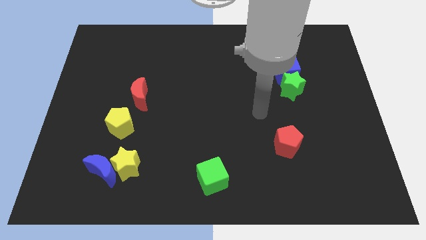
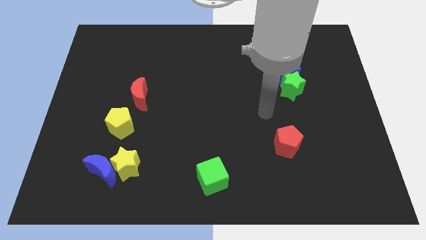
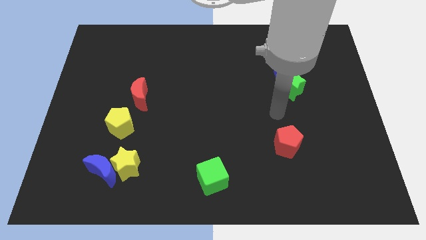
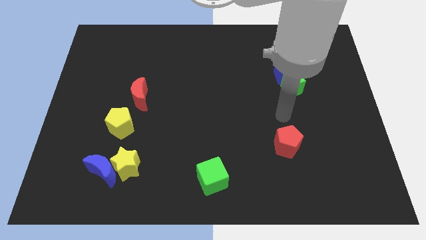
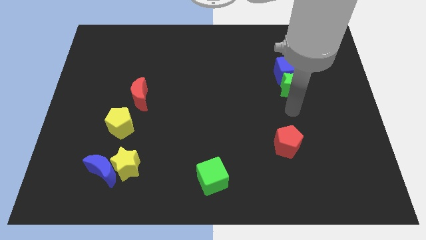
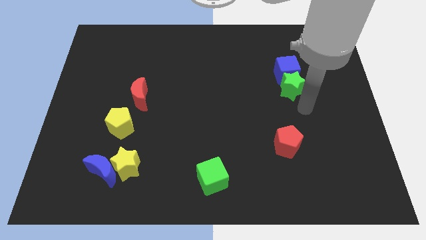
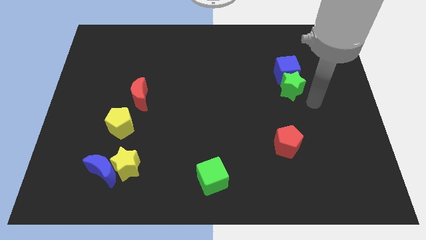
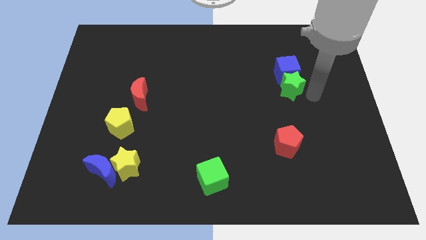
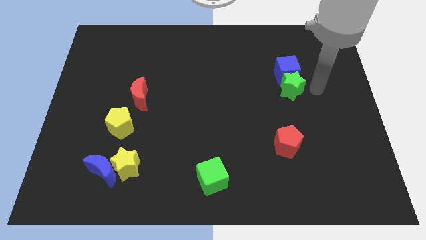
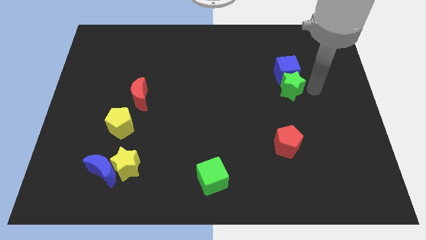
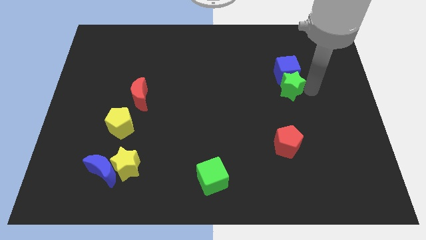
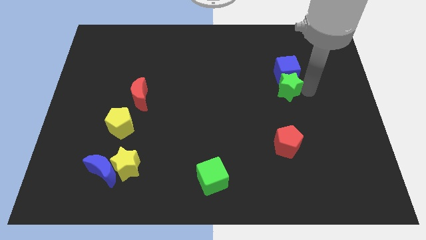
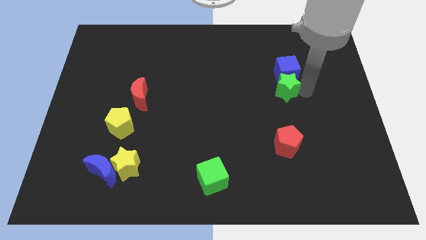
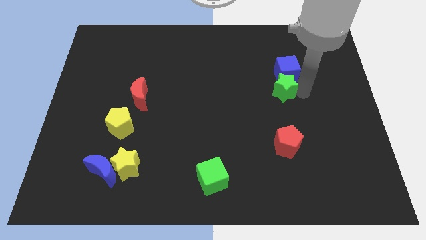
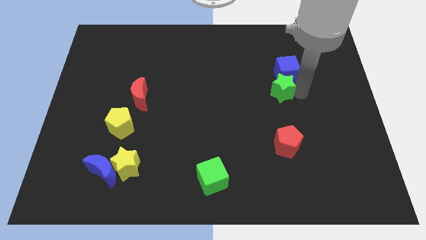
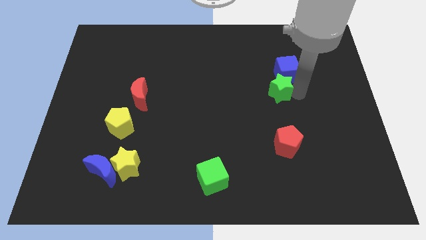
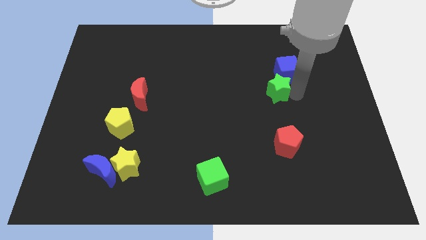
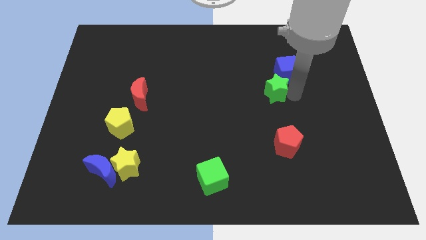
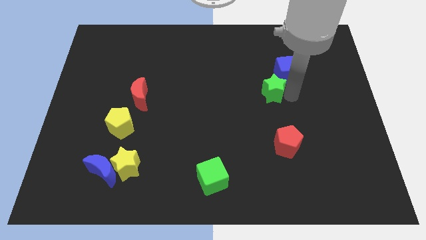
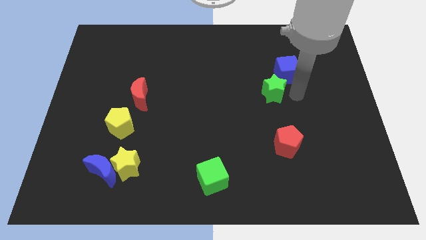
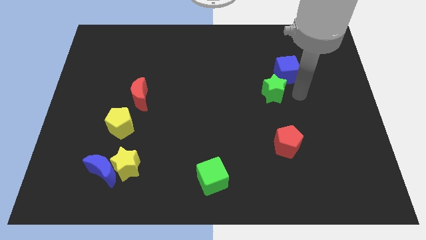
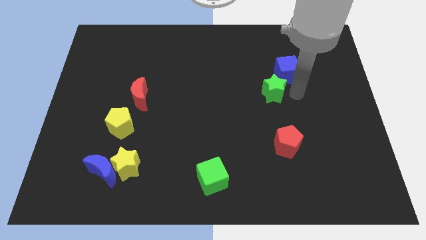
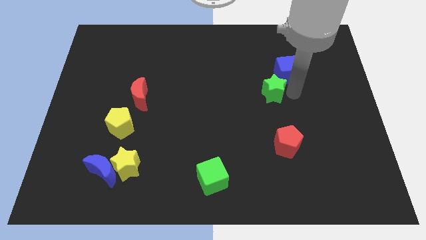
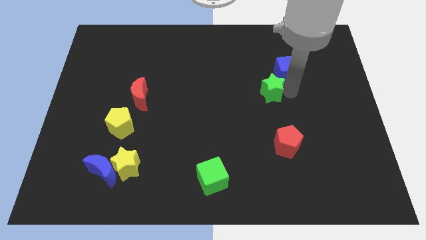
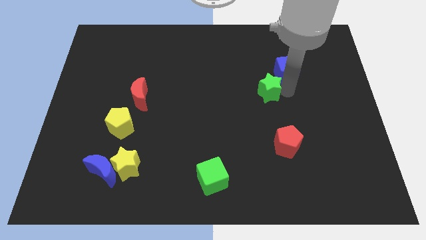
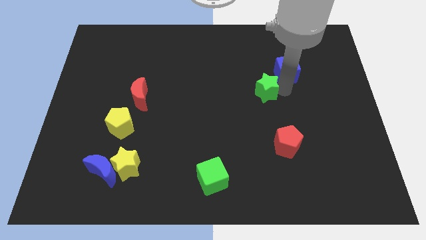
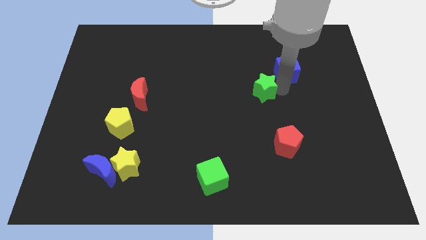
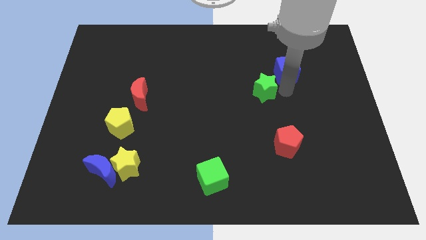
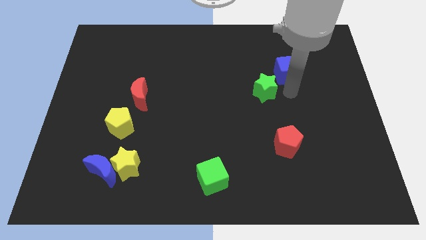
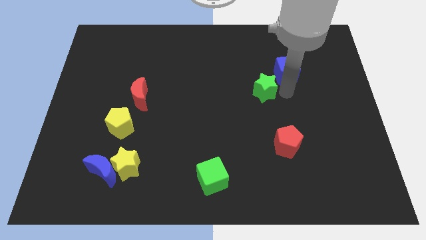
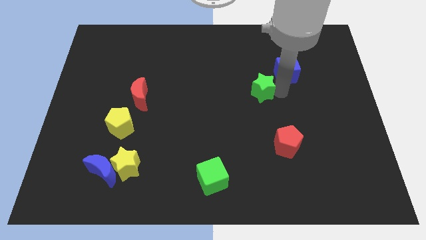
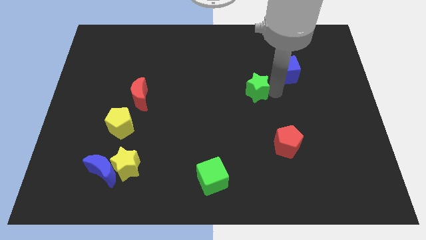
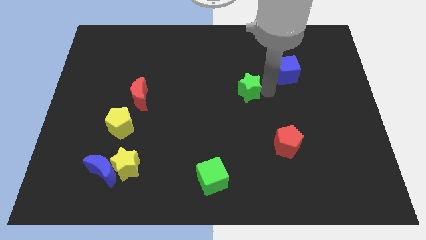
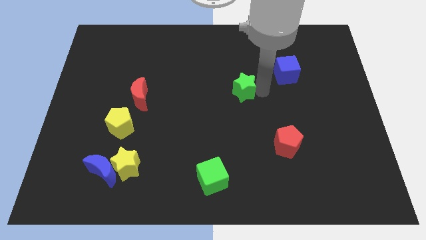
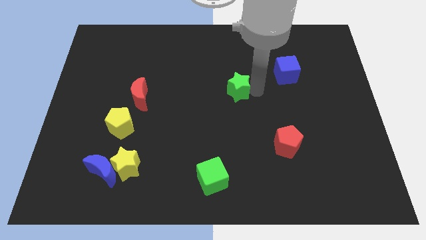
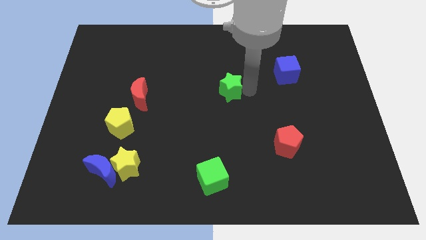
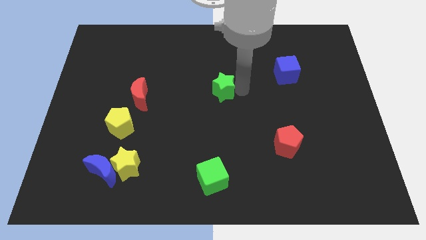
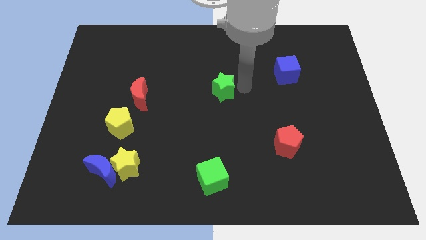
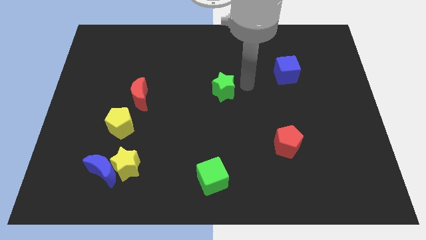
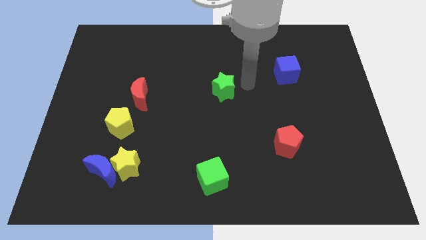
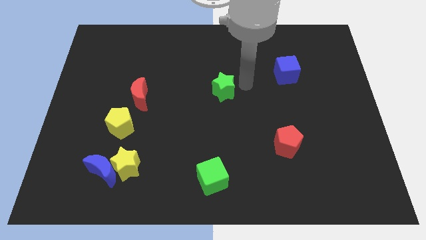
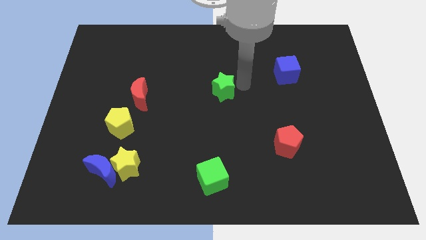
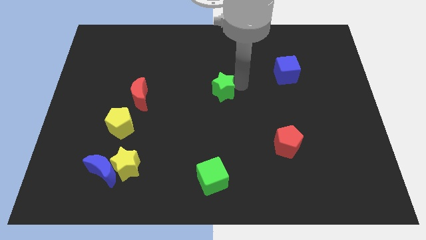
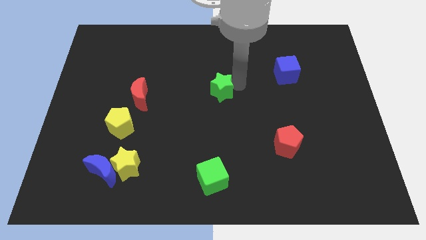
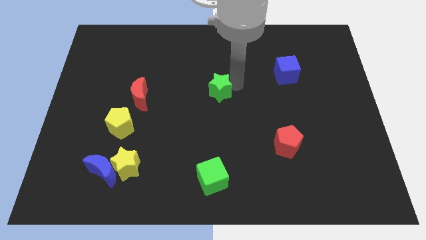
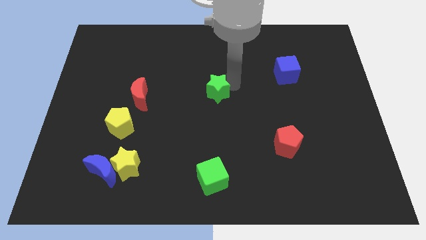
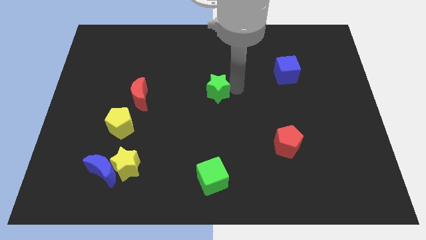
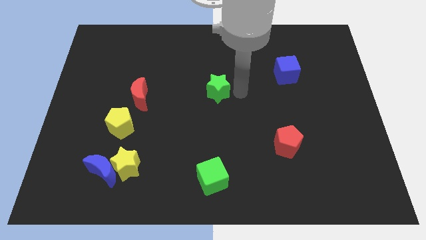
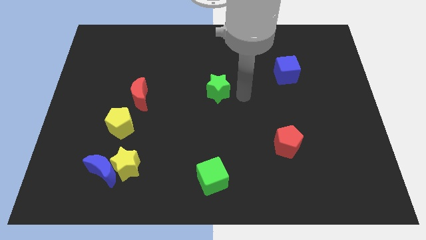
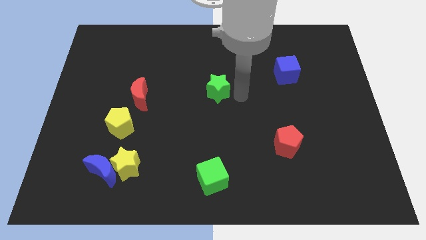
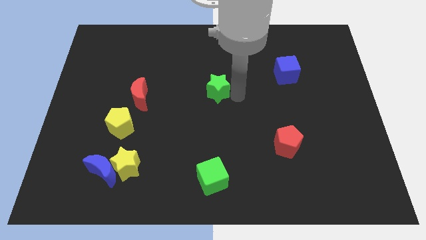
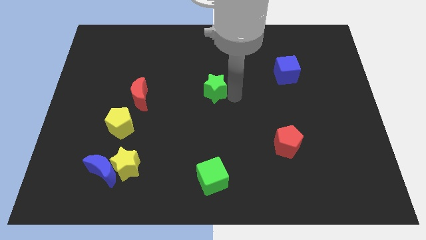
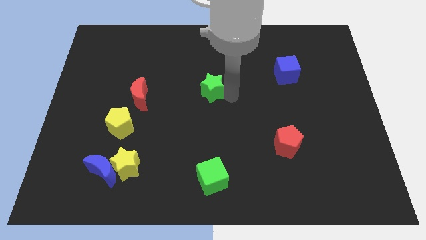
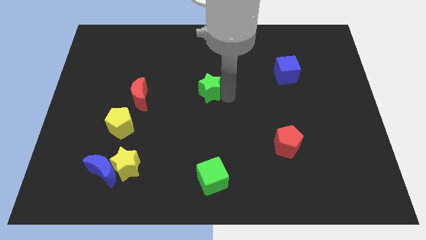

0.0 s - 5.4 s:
push the green star to the left

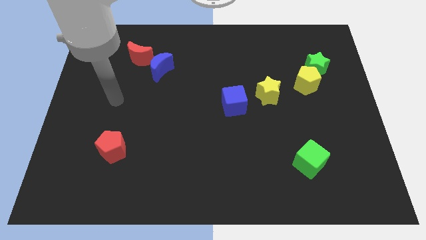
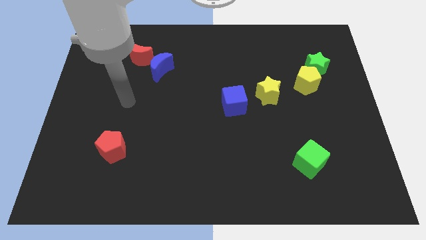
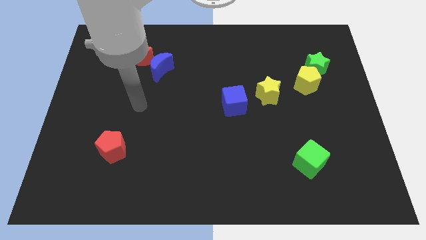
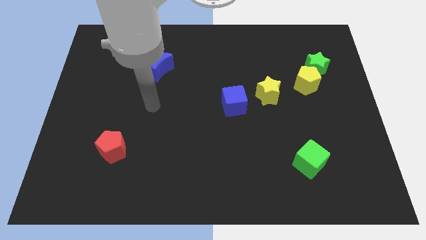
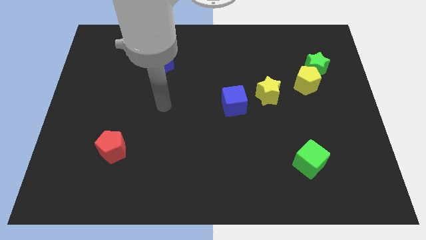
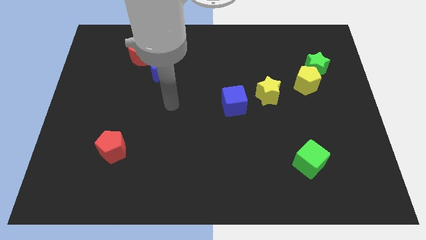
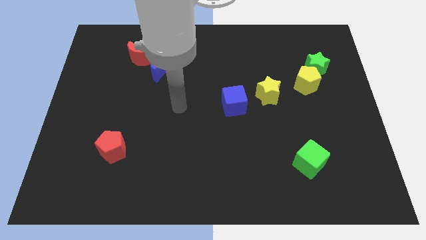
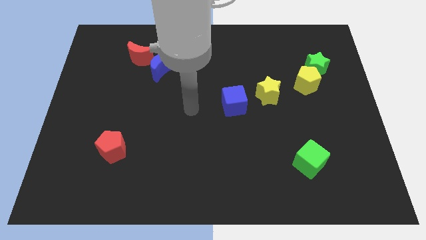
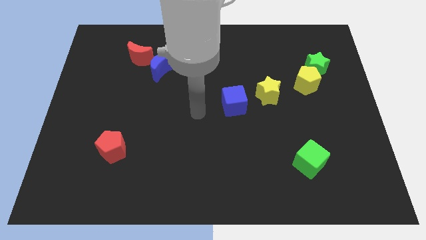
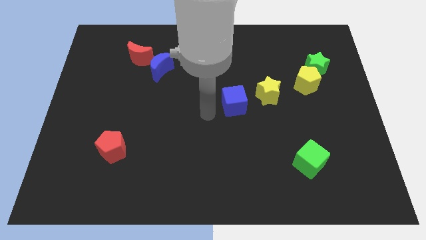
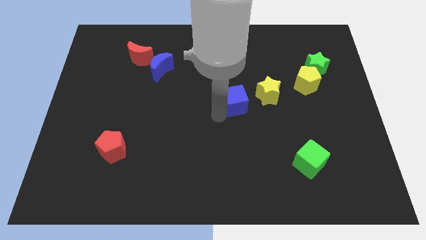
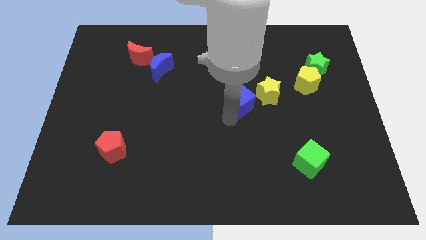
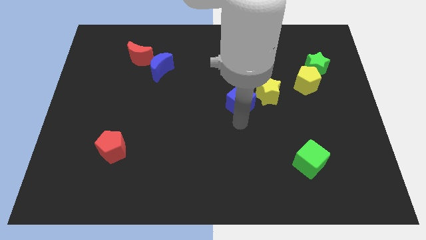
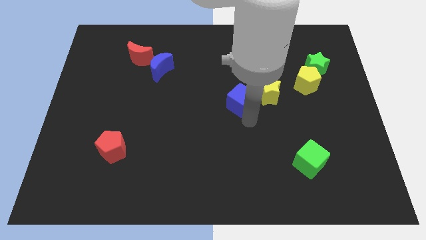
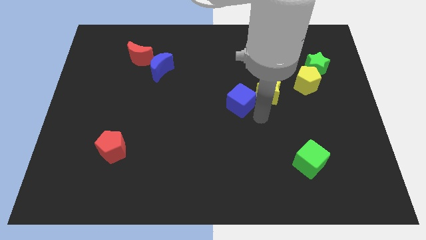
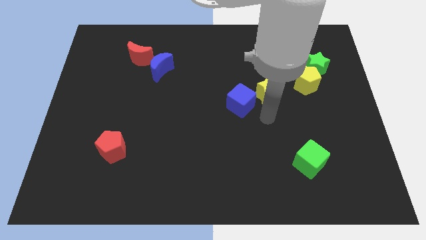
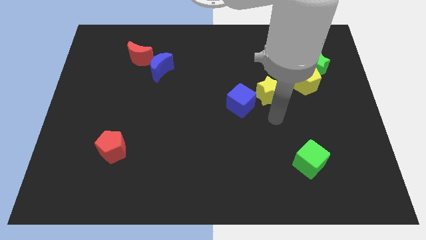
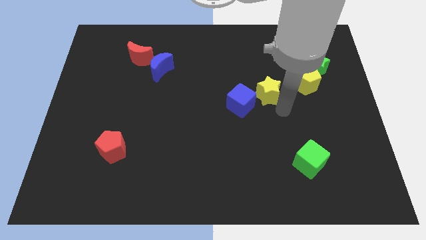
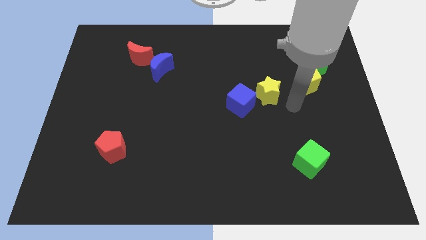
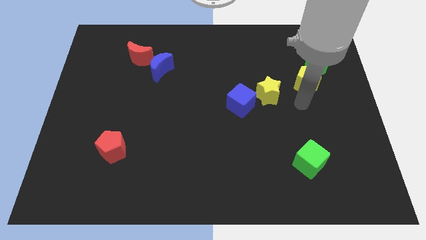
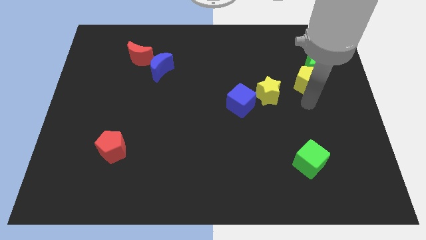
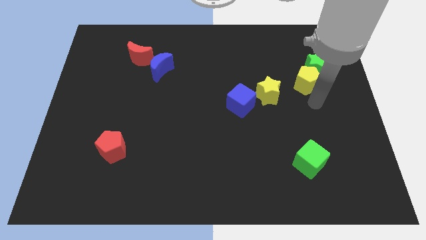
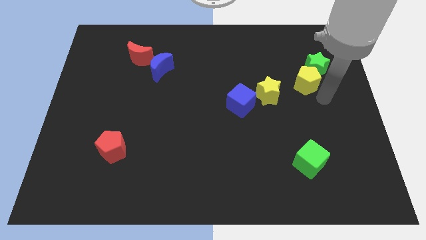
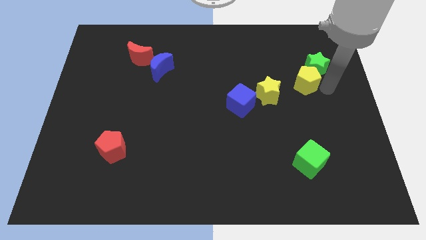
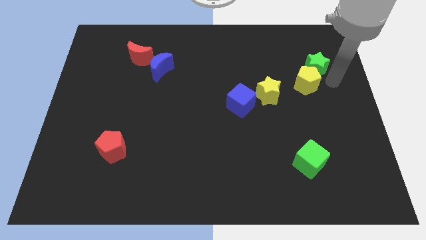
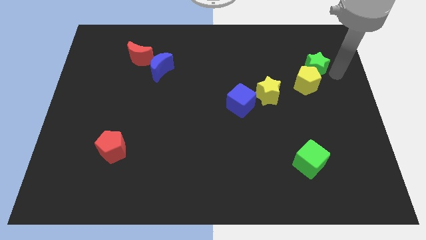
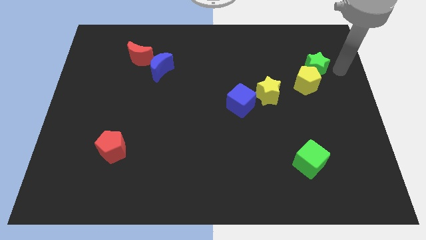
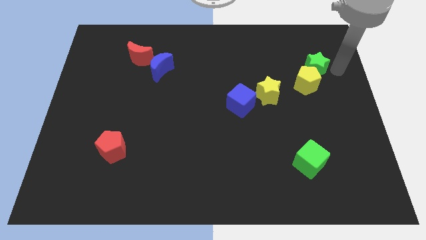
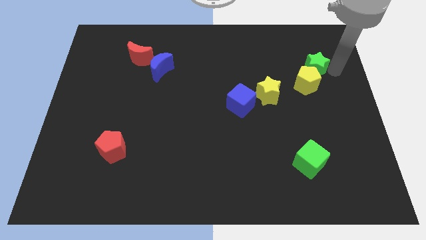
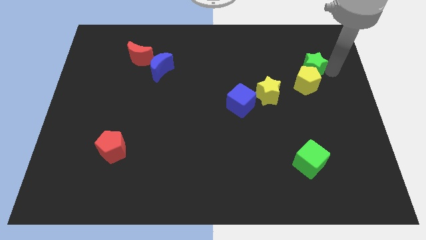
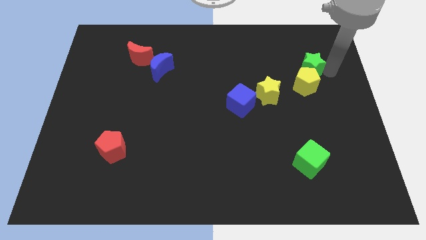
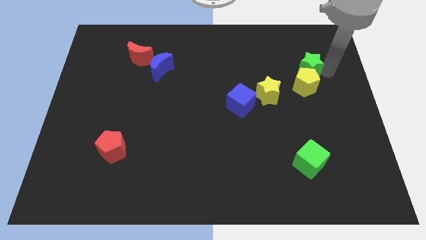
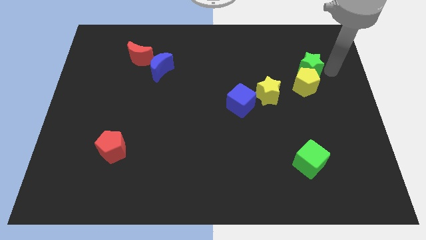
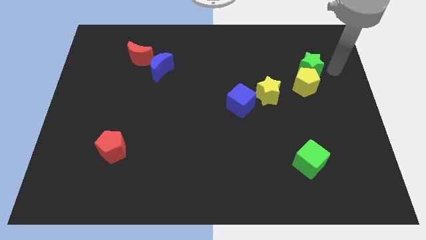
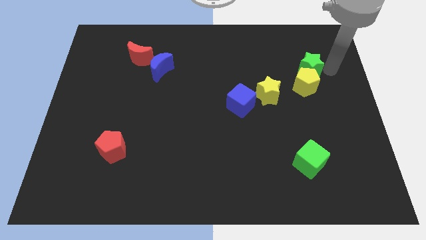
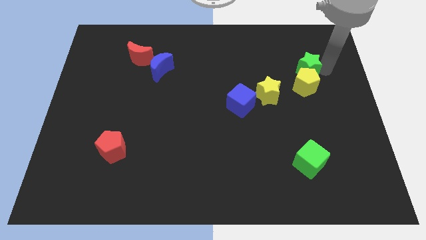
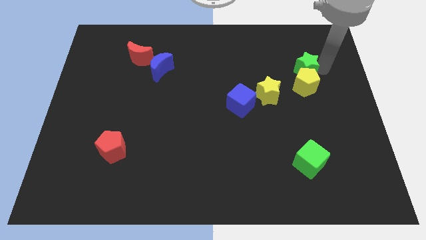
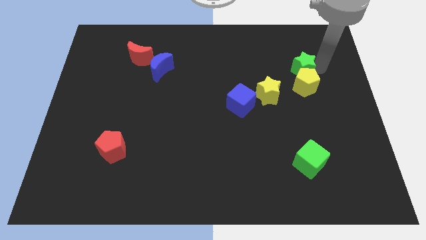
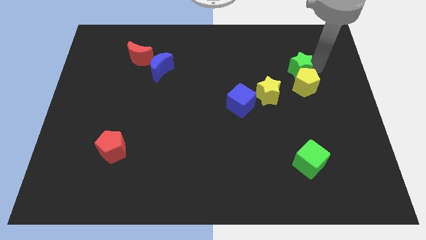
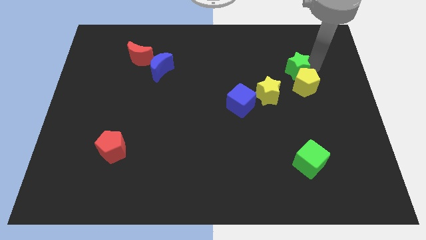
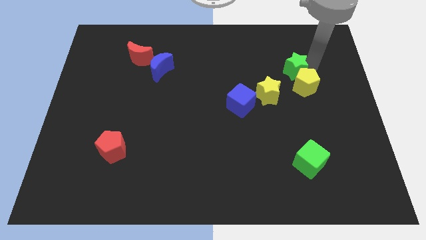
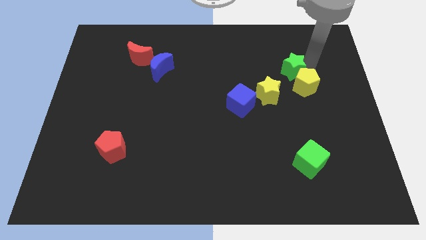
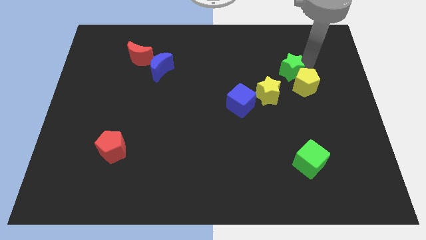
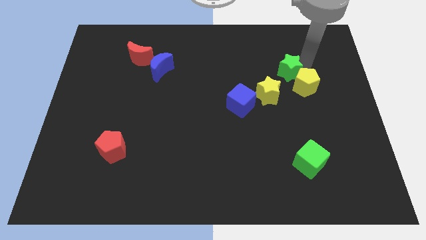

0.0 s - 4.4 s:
slide the green star a little left
